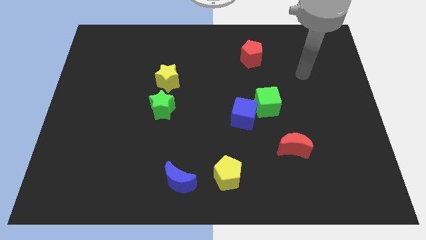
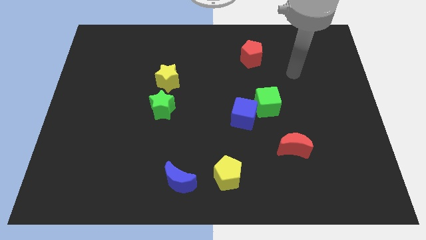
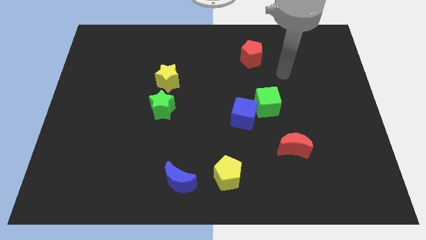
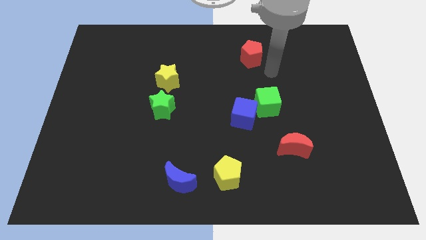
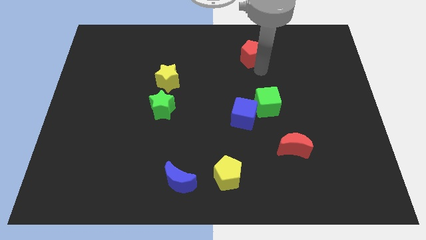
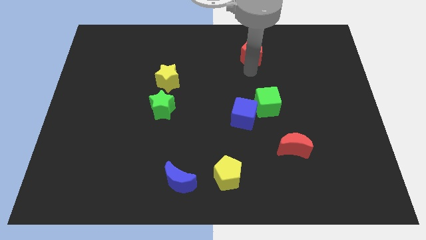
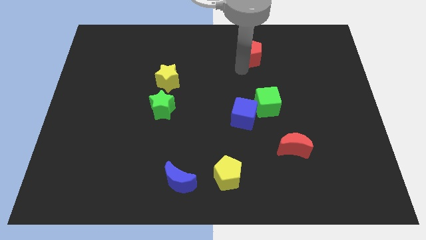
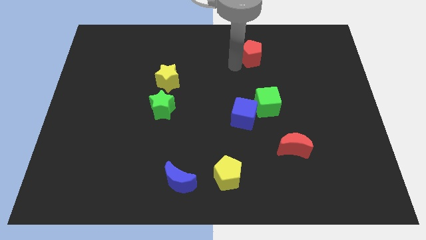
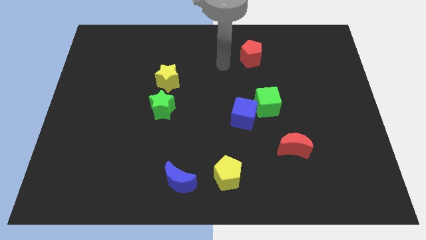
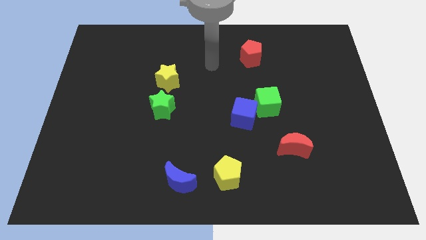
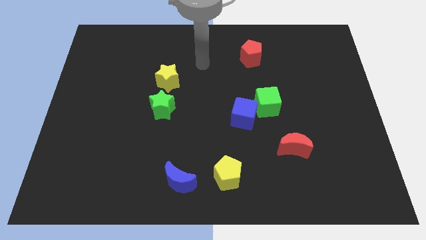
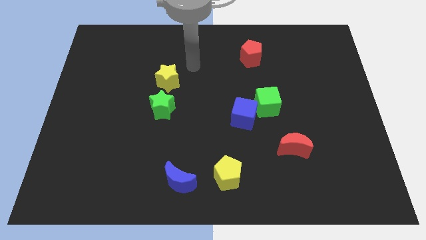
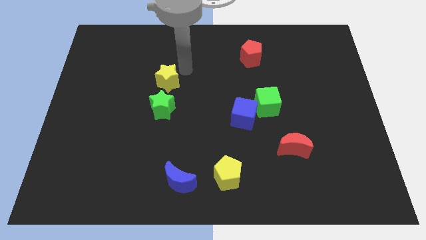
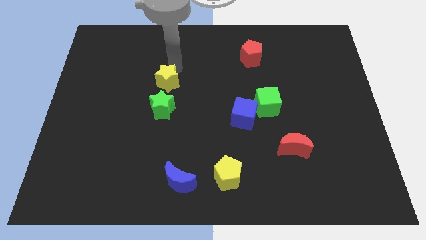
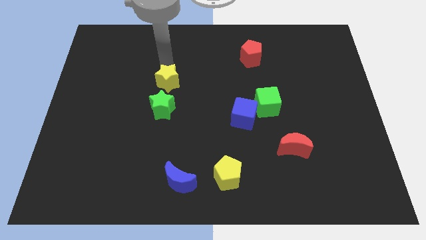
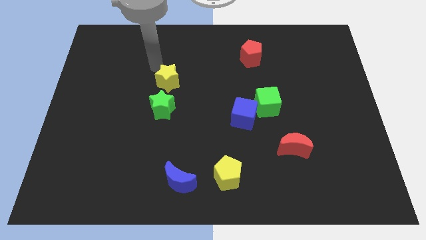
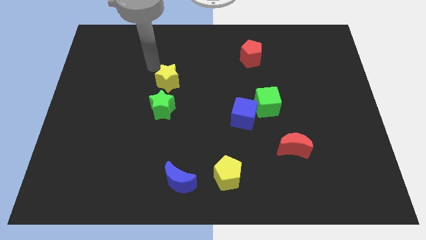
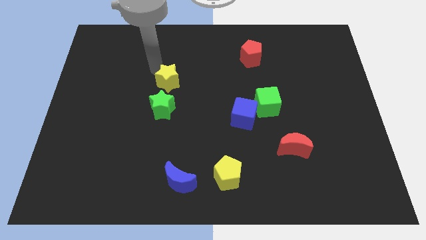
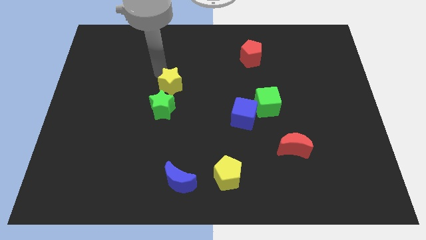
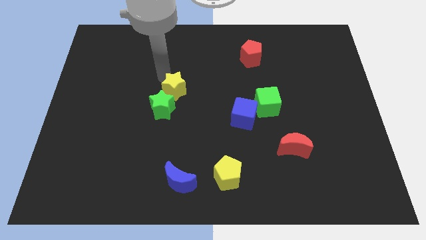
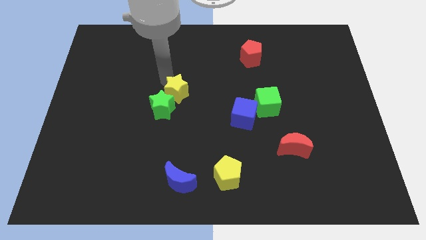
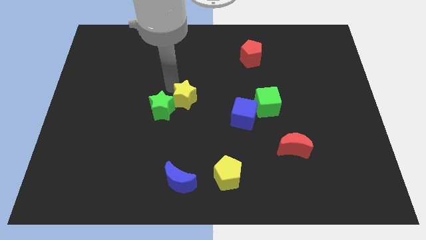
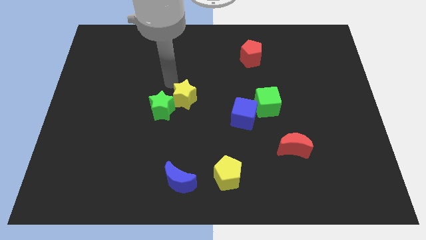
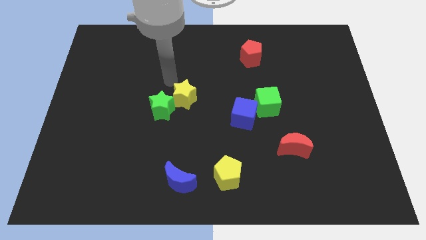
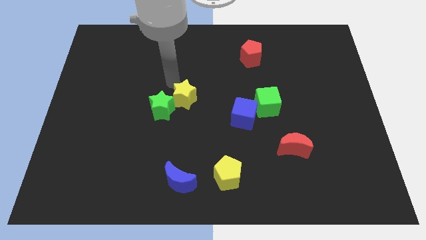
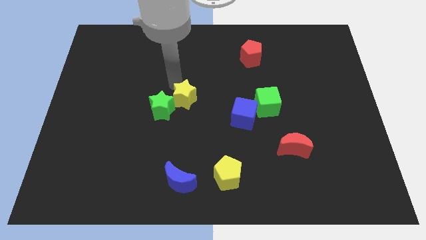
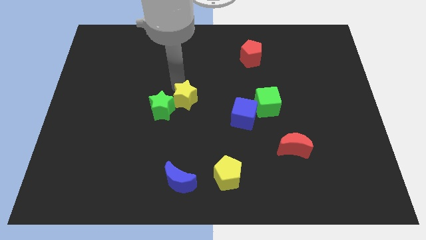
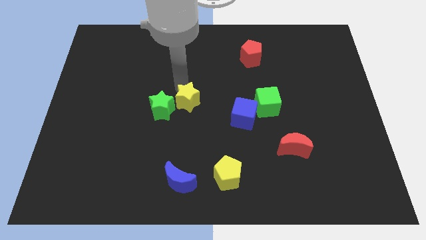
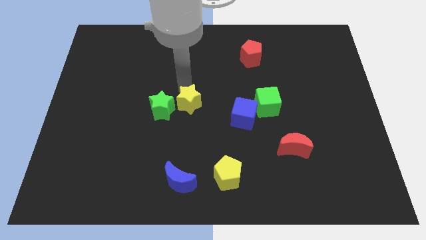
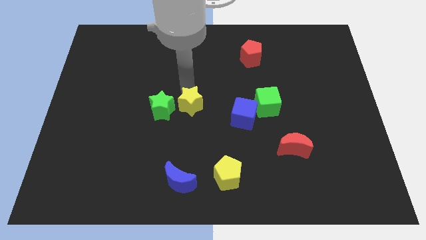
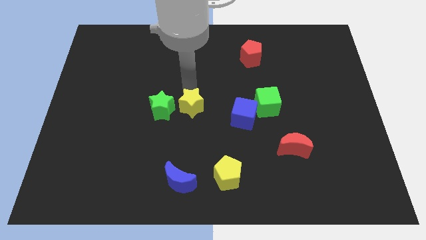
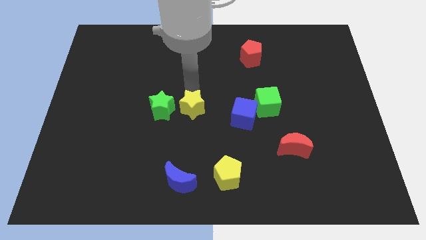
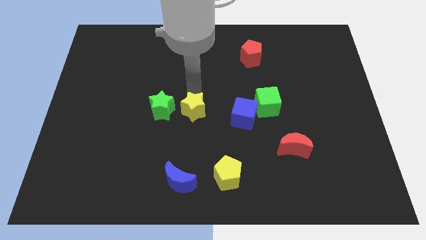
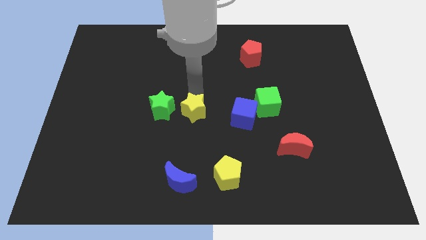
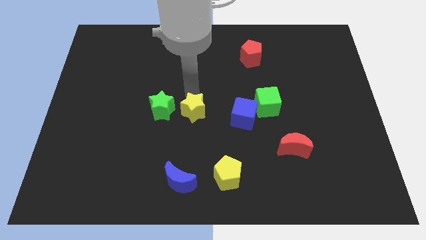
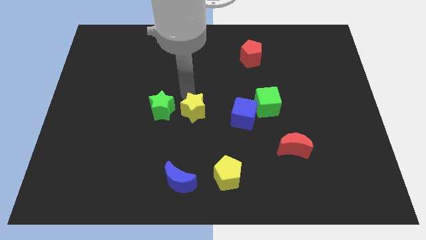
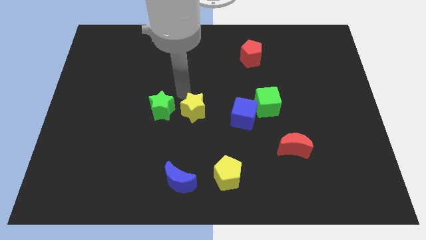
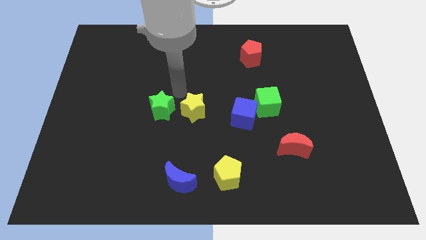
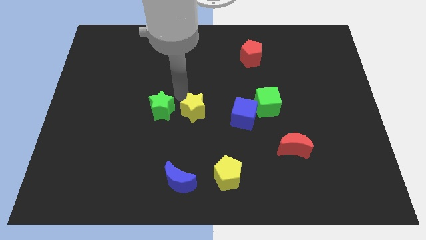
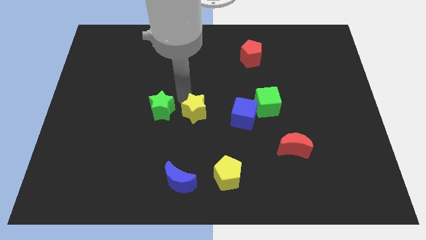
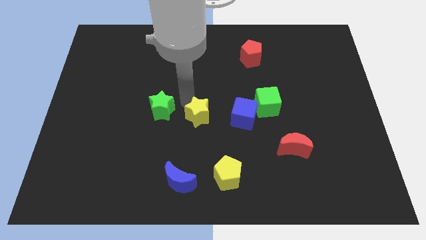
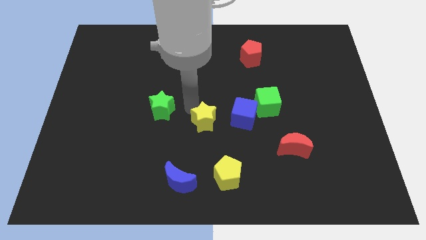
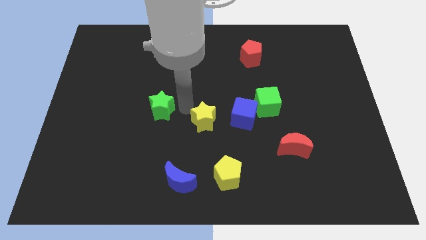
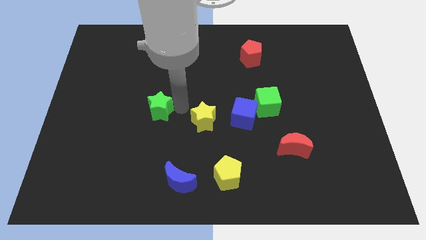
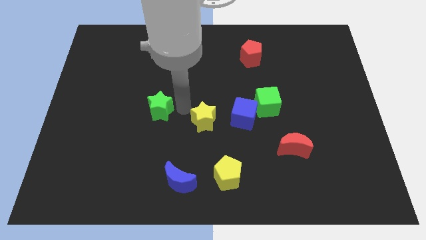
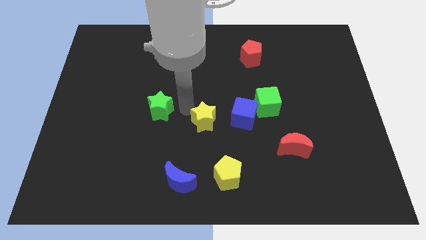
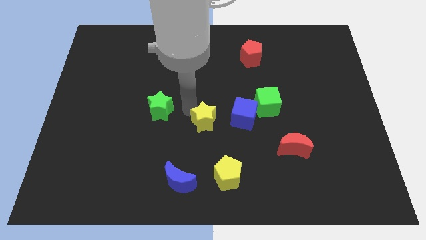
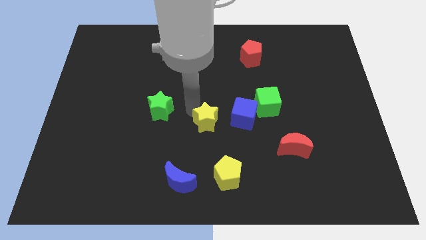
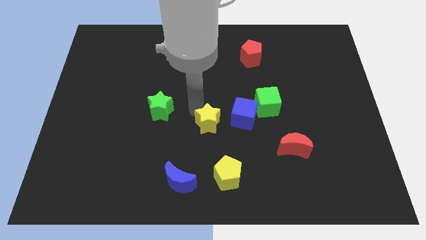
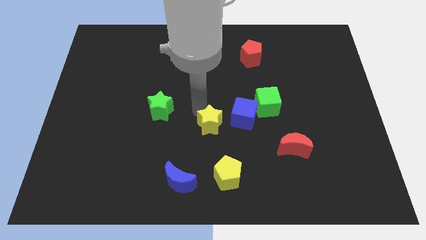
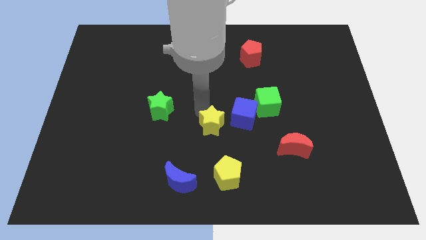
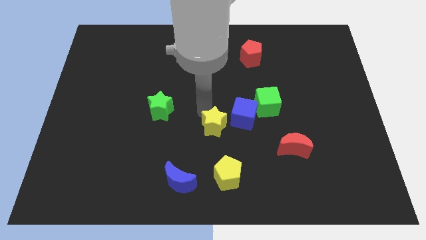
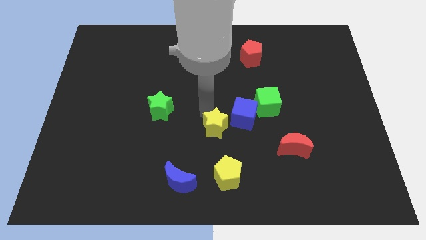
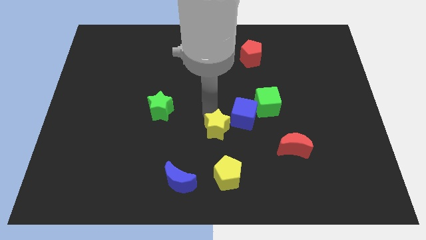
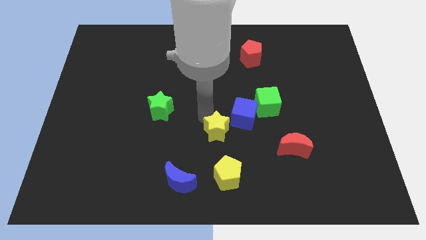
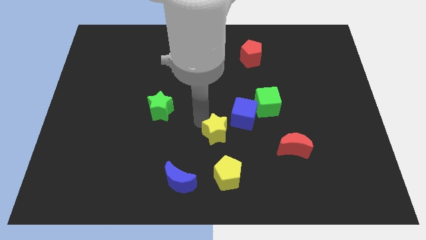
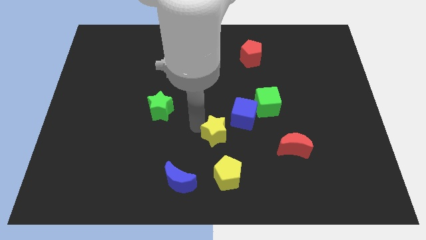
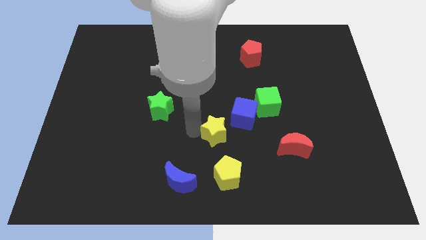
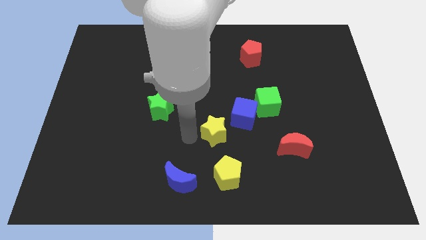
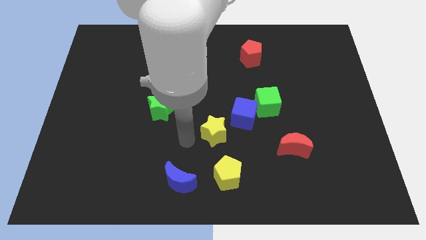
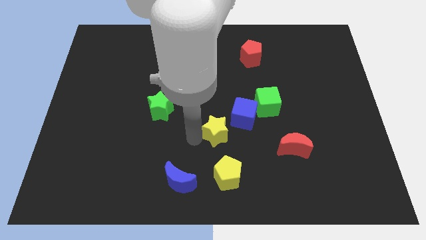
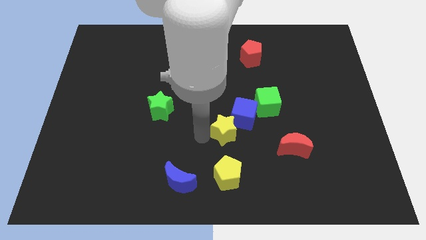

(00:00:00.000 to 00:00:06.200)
push the yellow star to the bottom left of the green cube

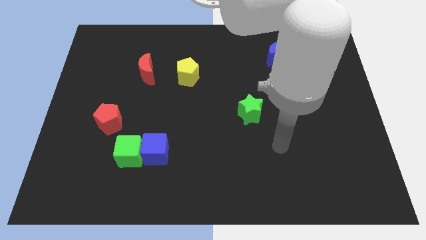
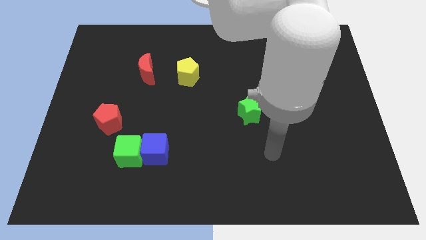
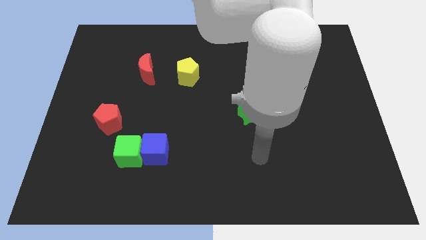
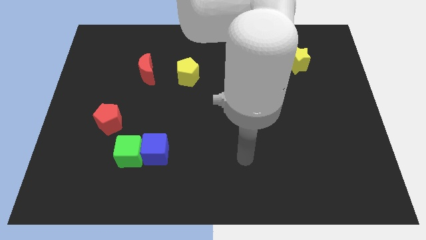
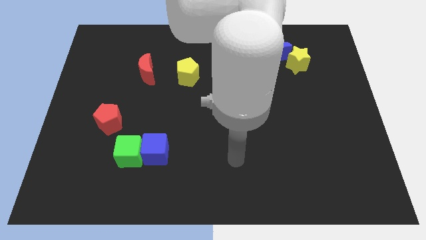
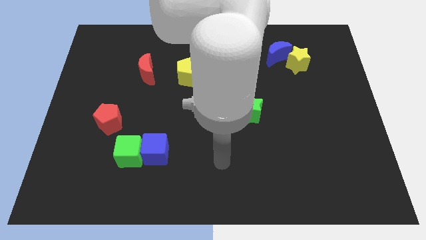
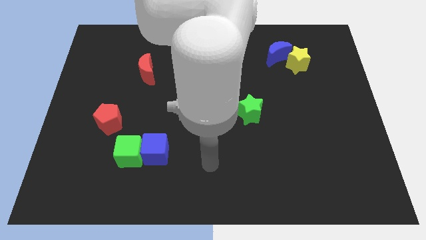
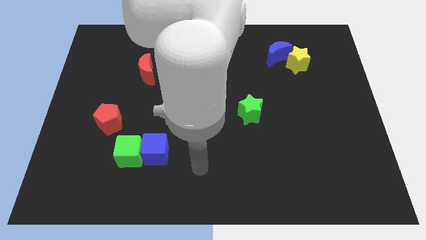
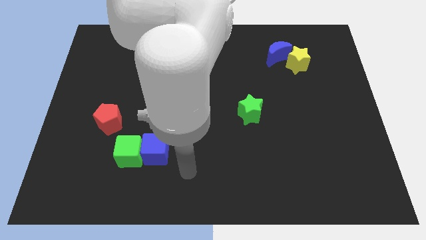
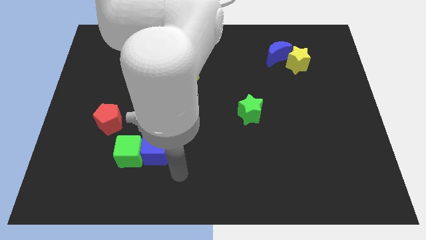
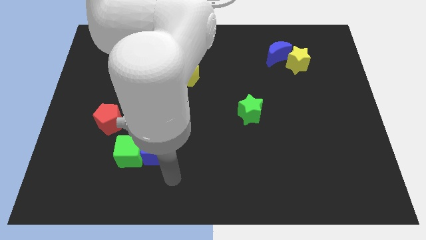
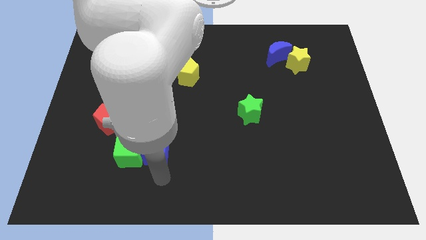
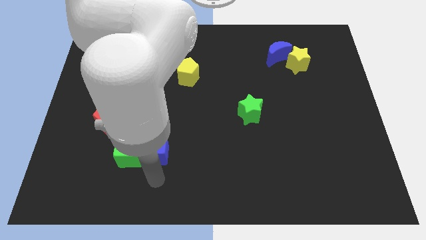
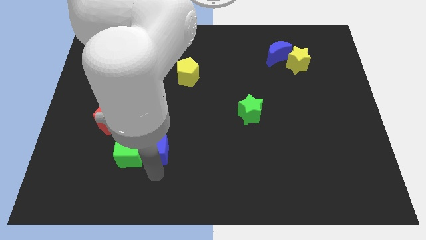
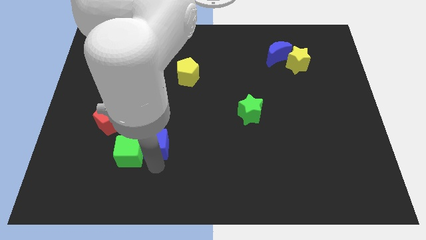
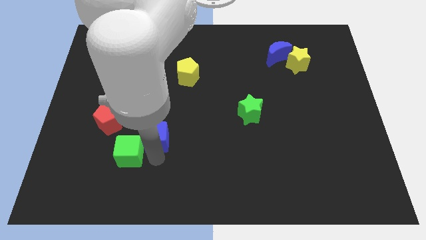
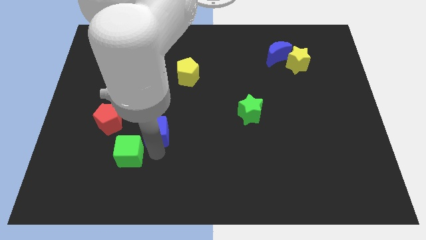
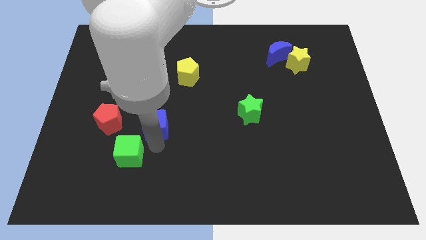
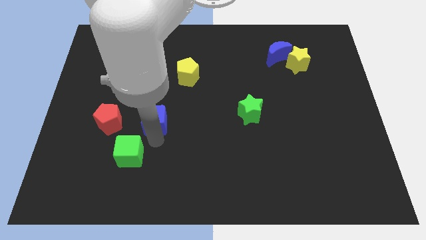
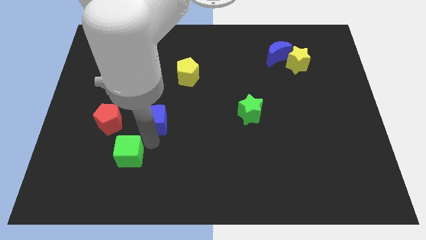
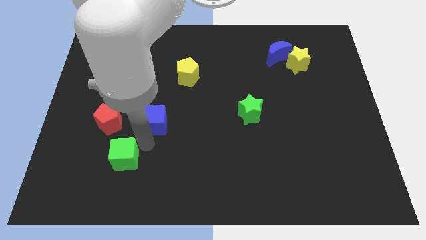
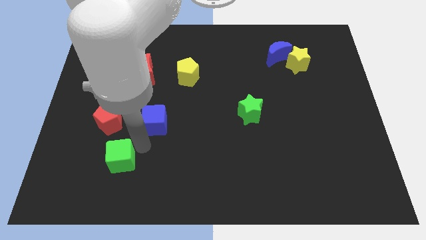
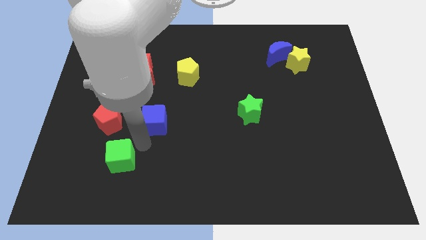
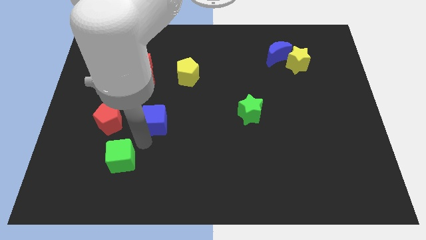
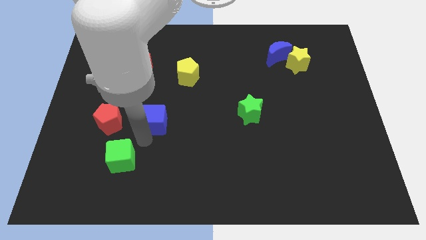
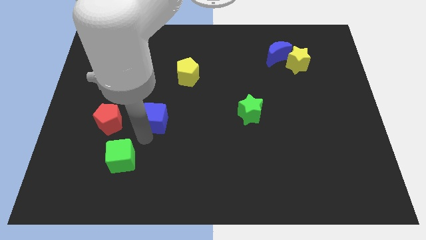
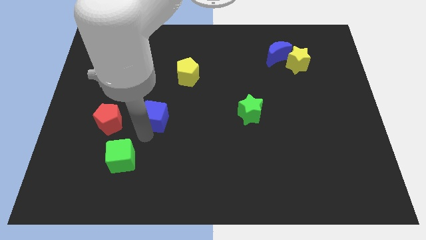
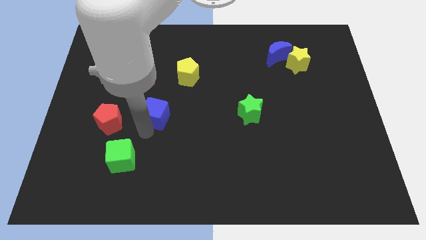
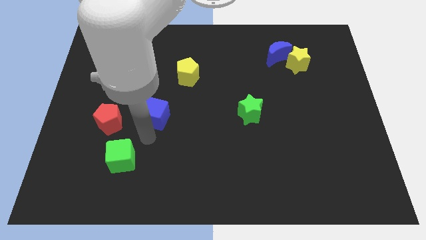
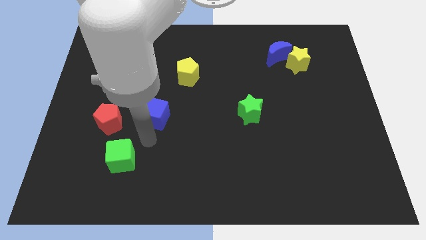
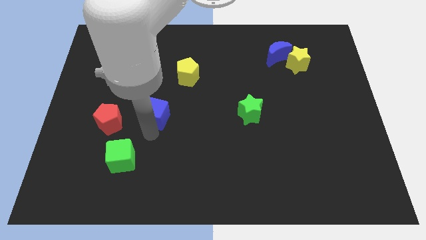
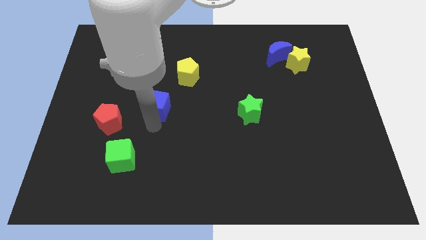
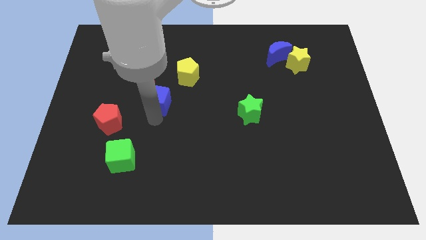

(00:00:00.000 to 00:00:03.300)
put the blue cube to the bottom right of the red moon
